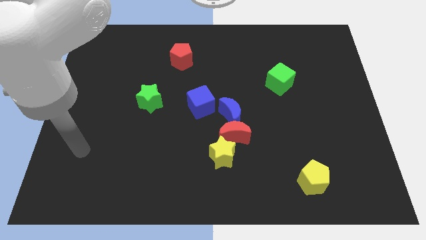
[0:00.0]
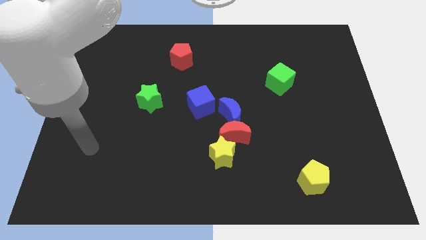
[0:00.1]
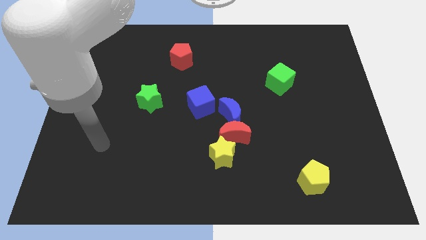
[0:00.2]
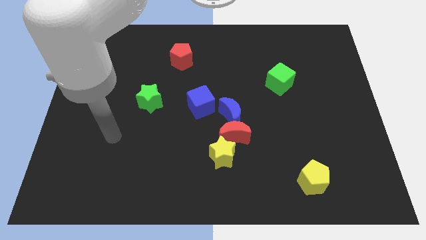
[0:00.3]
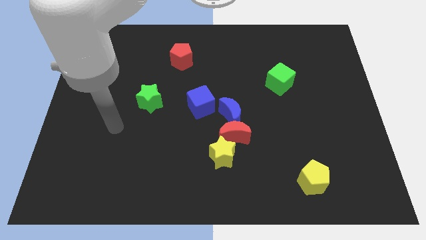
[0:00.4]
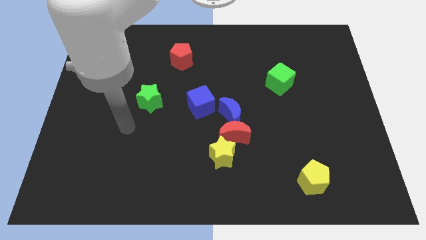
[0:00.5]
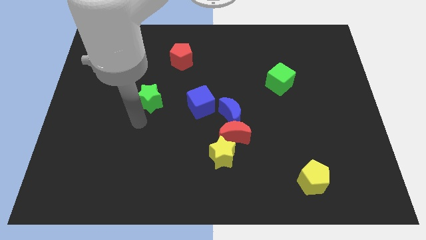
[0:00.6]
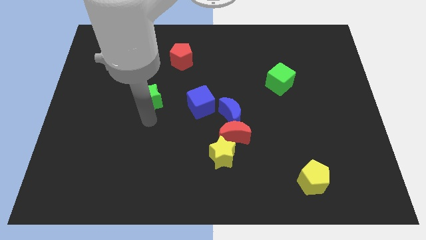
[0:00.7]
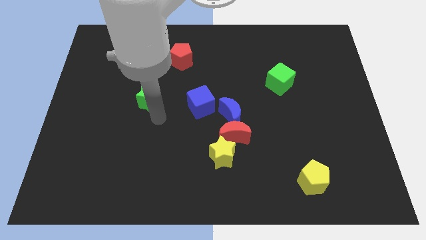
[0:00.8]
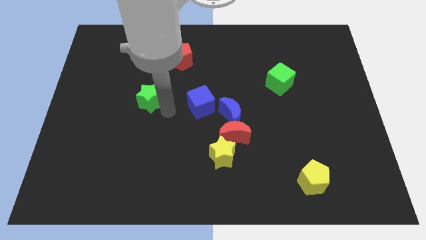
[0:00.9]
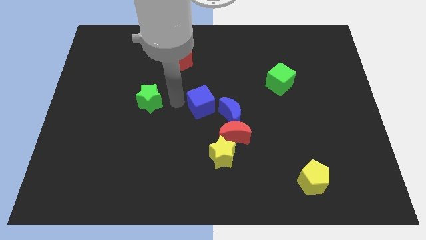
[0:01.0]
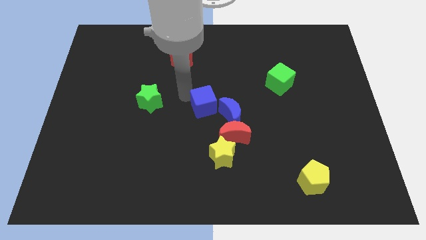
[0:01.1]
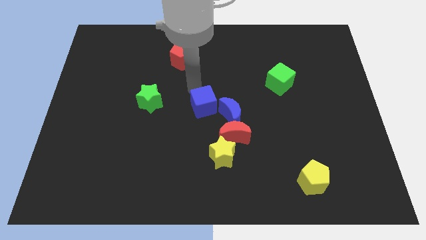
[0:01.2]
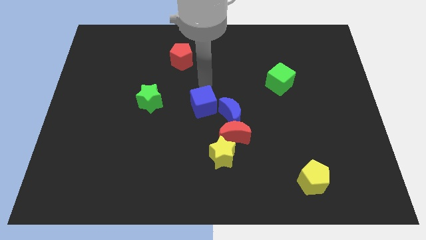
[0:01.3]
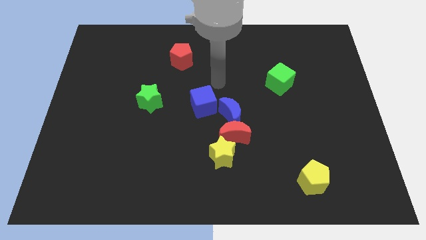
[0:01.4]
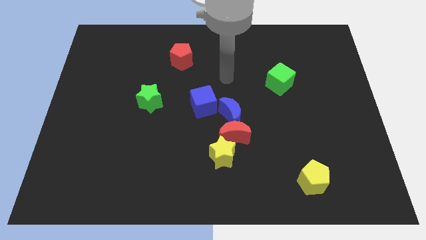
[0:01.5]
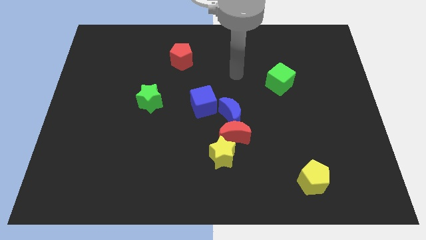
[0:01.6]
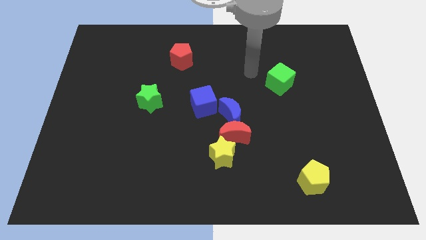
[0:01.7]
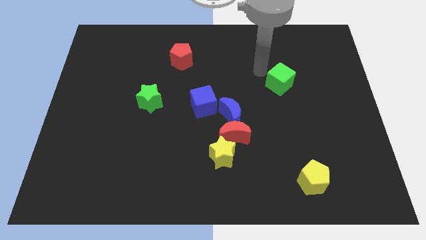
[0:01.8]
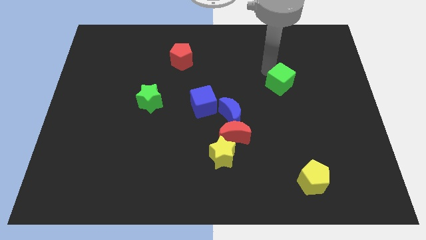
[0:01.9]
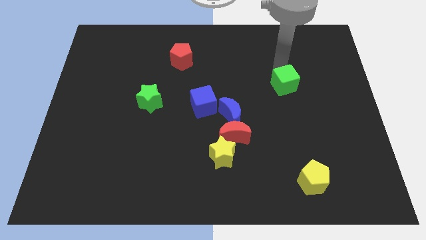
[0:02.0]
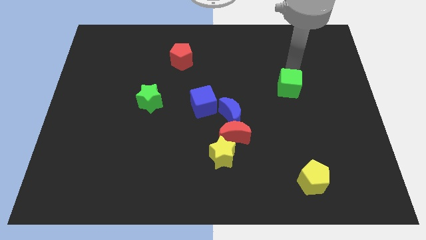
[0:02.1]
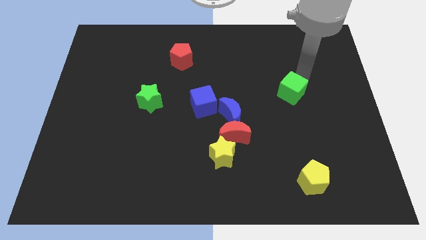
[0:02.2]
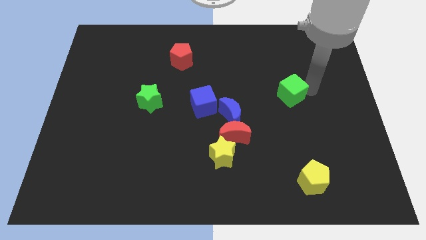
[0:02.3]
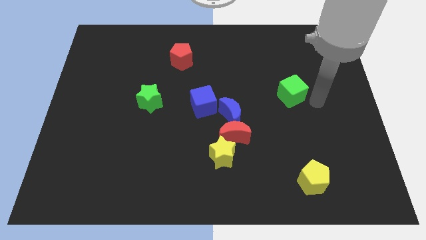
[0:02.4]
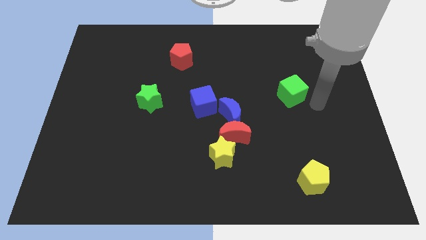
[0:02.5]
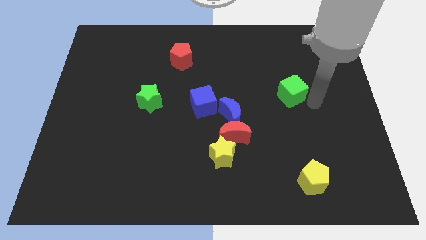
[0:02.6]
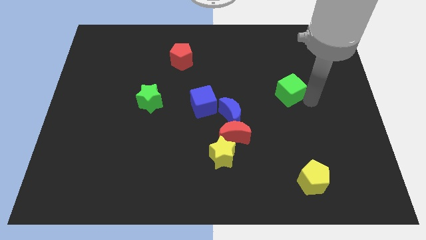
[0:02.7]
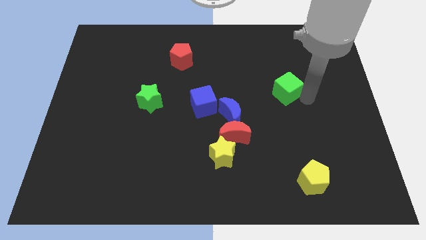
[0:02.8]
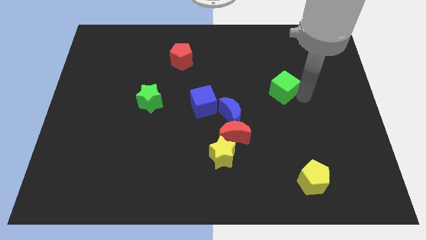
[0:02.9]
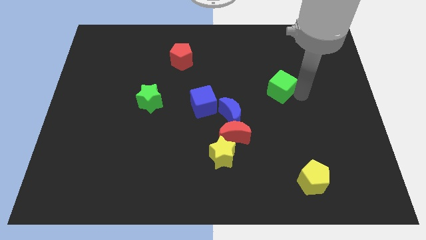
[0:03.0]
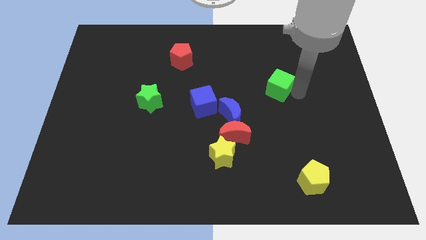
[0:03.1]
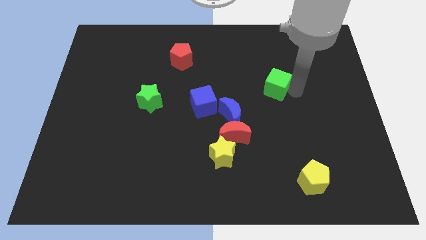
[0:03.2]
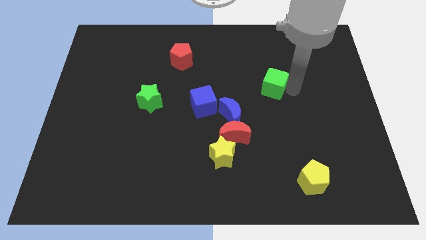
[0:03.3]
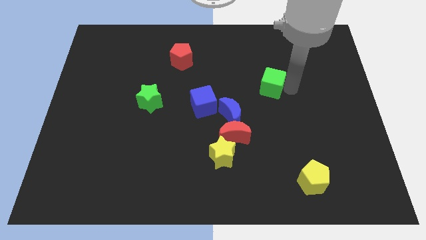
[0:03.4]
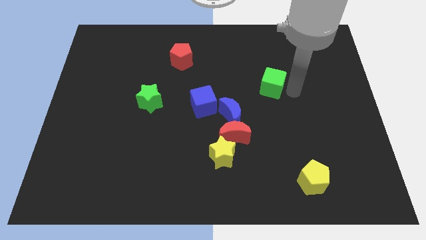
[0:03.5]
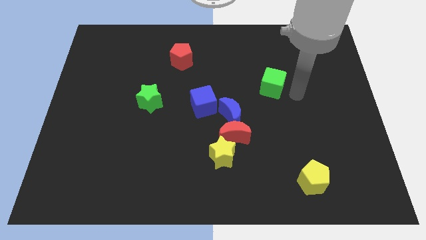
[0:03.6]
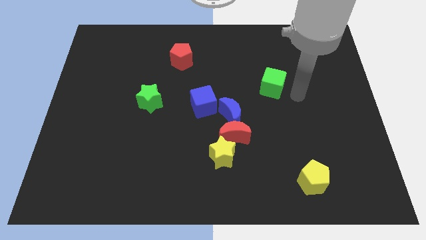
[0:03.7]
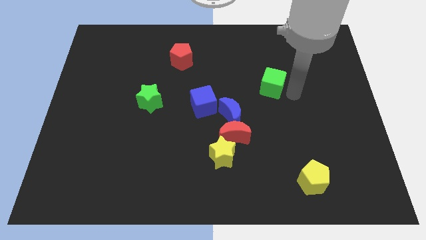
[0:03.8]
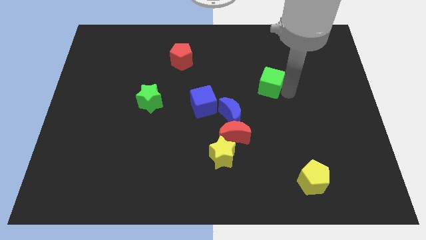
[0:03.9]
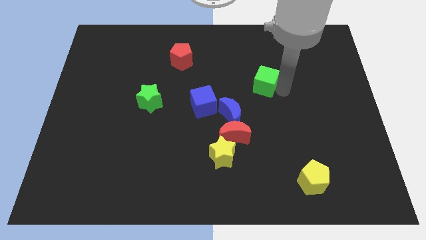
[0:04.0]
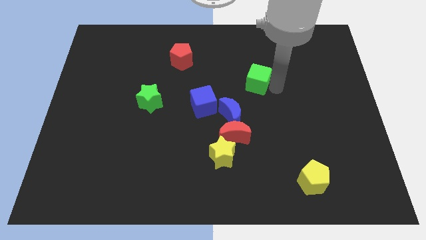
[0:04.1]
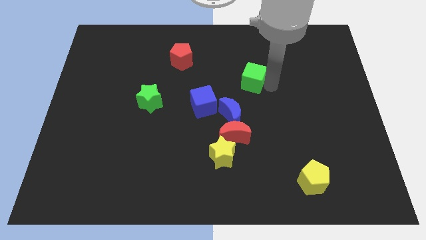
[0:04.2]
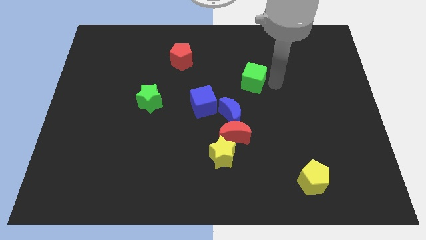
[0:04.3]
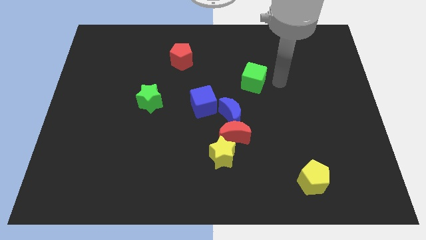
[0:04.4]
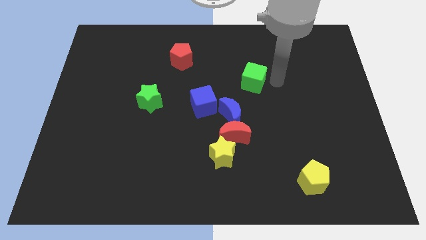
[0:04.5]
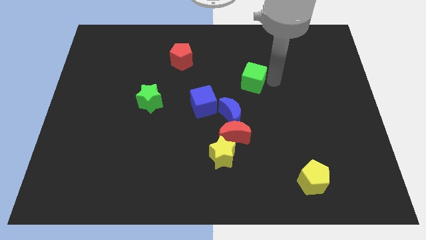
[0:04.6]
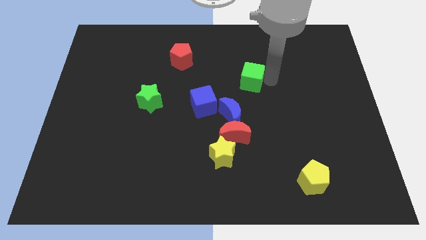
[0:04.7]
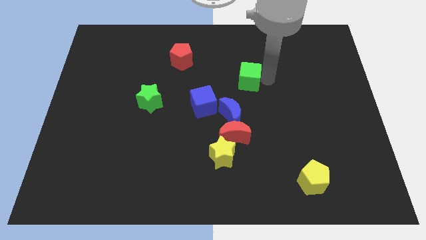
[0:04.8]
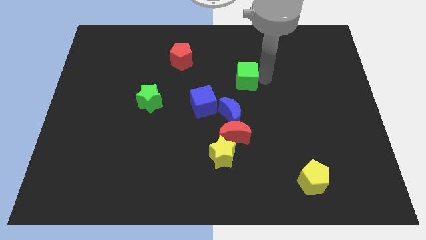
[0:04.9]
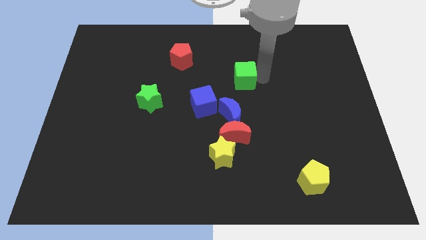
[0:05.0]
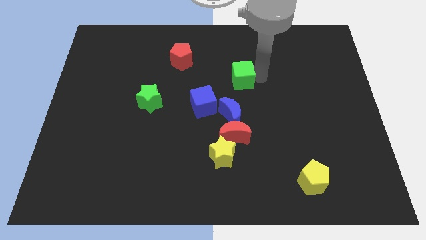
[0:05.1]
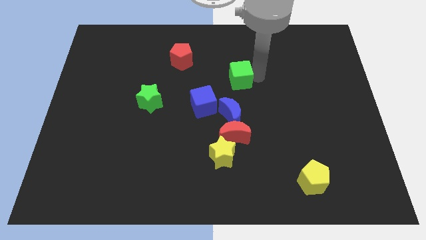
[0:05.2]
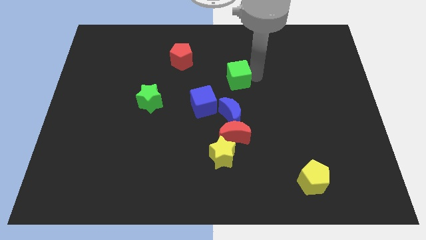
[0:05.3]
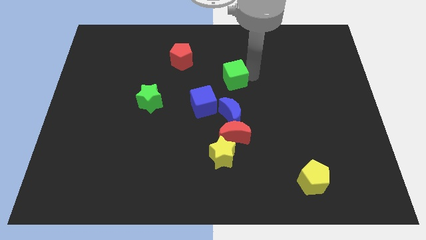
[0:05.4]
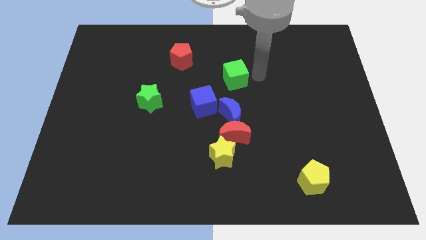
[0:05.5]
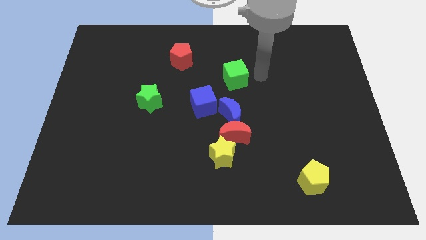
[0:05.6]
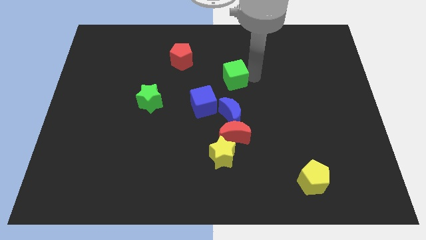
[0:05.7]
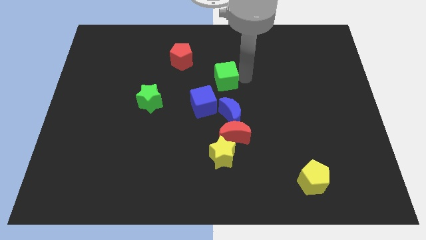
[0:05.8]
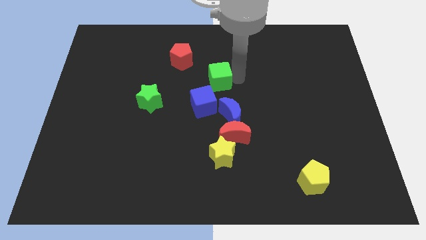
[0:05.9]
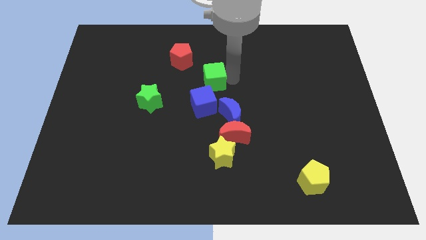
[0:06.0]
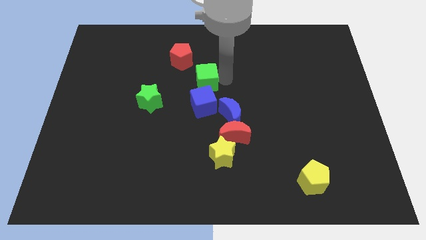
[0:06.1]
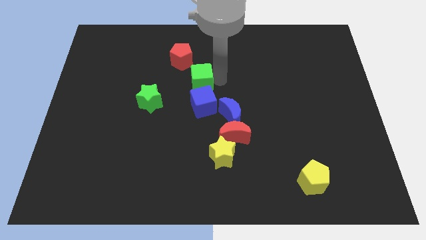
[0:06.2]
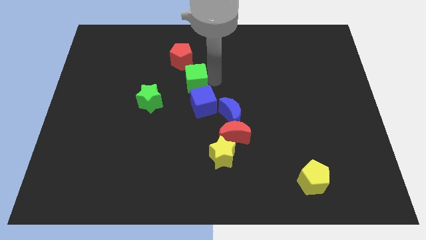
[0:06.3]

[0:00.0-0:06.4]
slide the green cube left

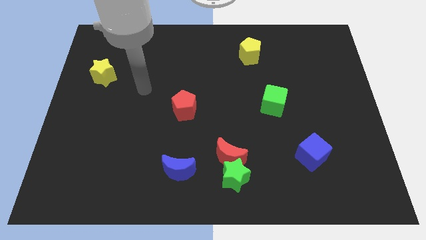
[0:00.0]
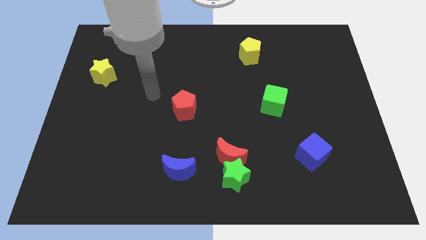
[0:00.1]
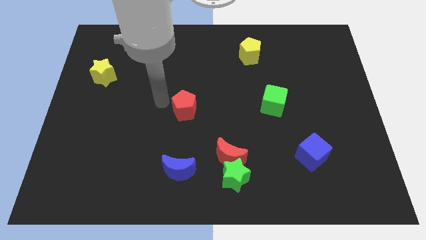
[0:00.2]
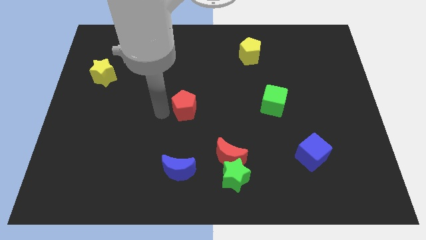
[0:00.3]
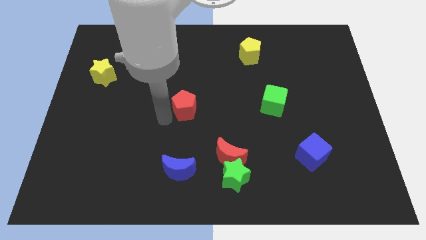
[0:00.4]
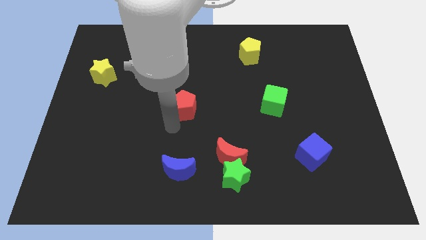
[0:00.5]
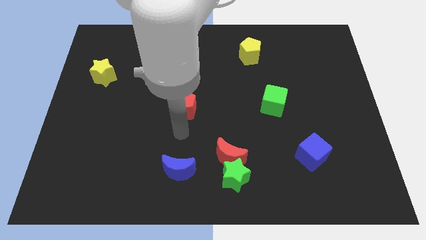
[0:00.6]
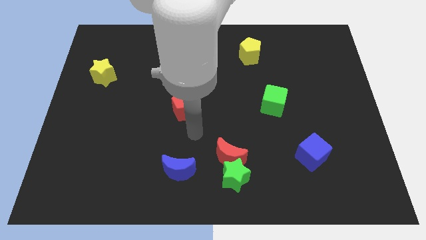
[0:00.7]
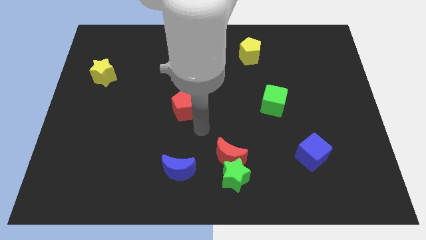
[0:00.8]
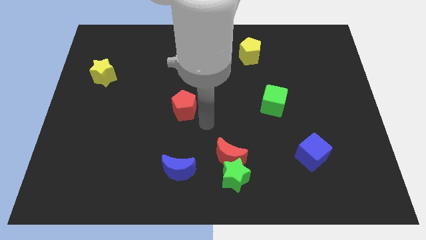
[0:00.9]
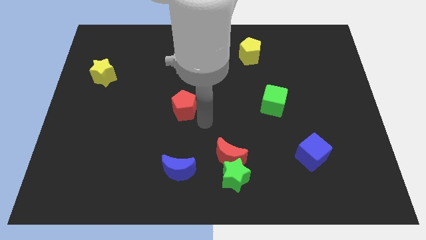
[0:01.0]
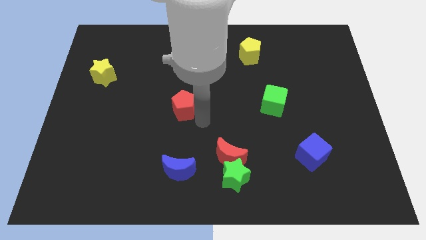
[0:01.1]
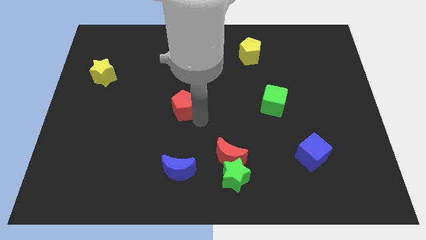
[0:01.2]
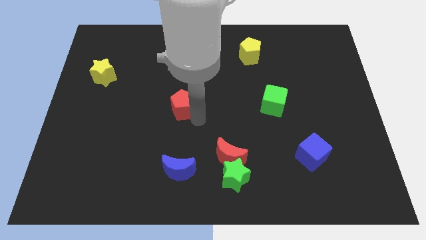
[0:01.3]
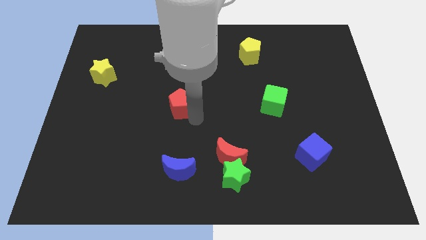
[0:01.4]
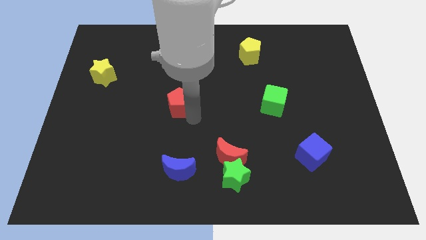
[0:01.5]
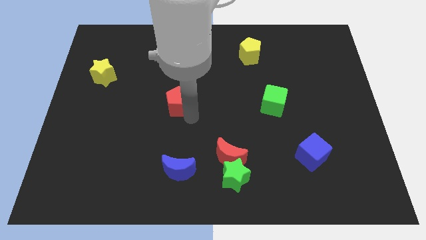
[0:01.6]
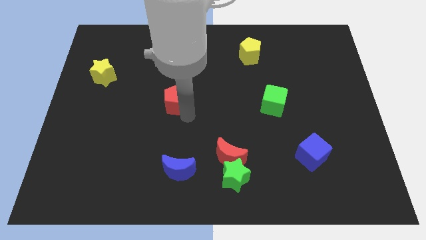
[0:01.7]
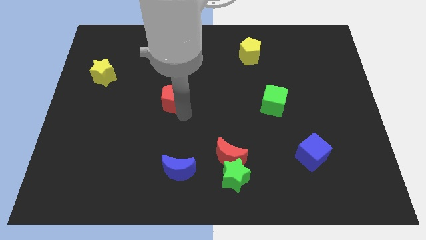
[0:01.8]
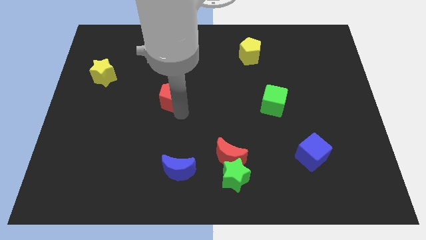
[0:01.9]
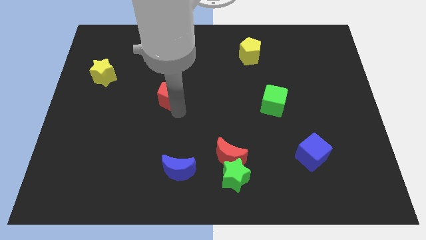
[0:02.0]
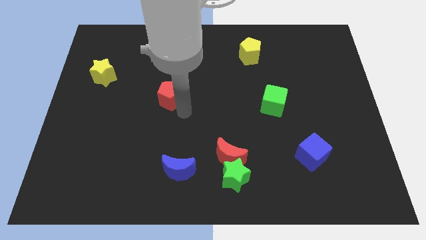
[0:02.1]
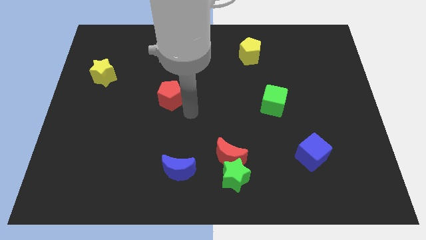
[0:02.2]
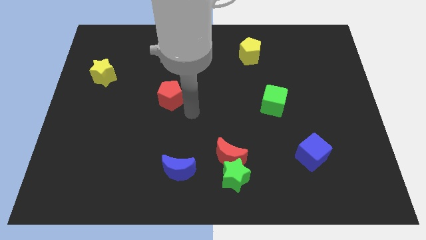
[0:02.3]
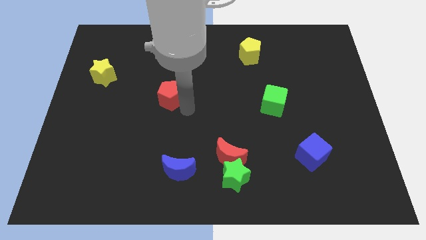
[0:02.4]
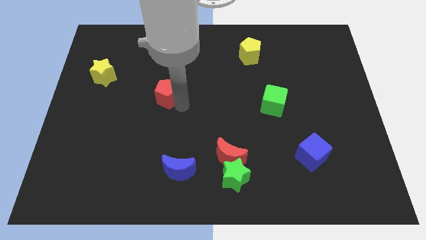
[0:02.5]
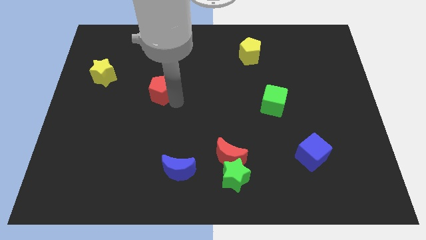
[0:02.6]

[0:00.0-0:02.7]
move the red pentagon up and left a bit
